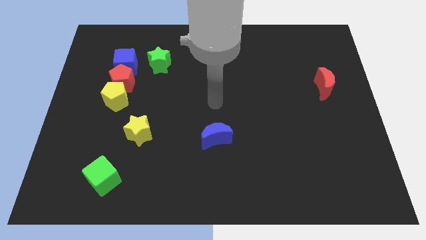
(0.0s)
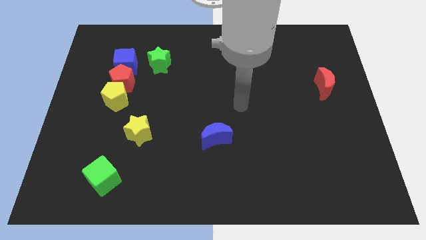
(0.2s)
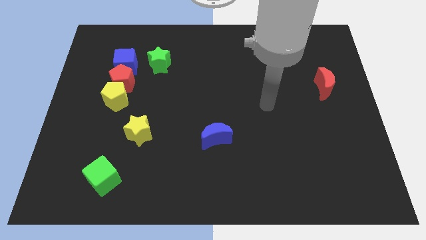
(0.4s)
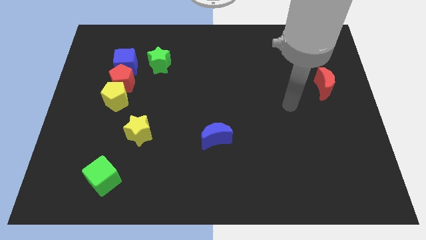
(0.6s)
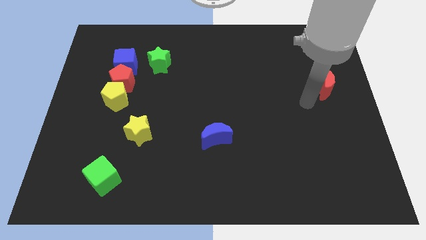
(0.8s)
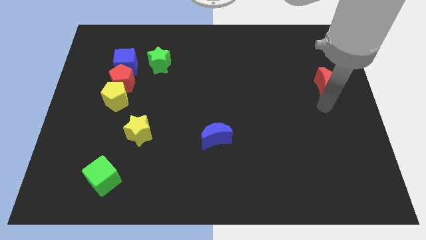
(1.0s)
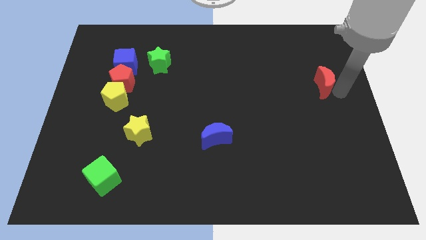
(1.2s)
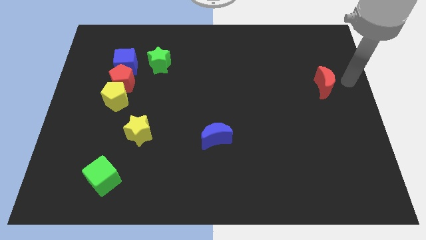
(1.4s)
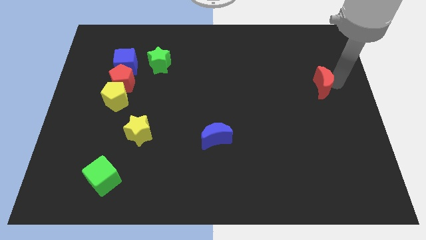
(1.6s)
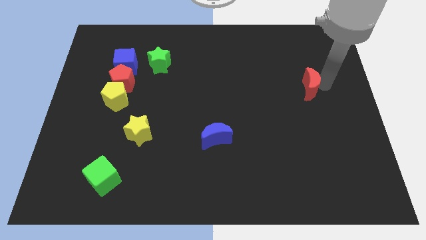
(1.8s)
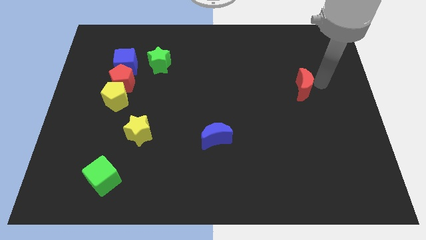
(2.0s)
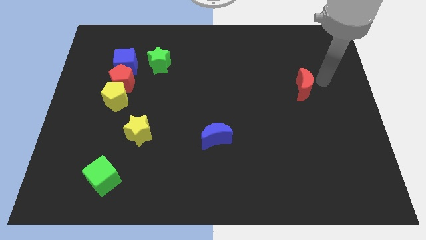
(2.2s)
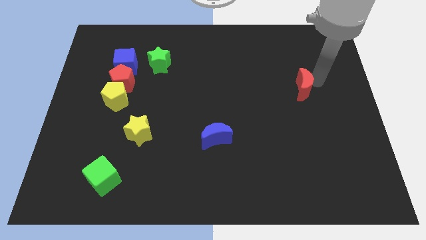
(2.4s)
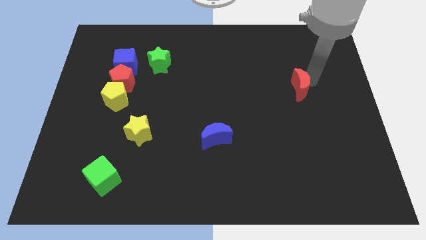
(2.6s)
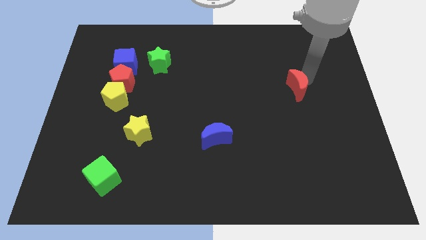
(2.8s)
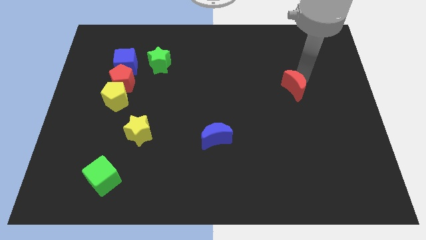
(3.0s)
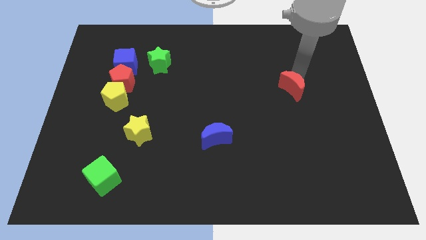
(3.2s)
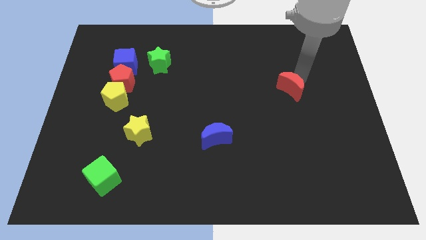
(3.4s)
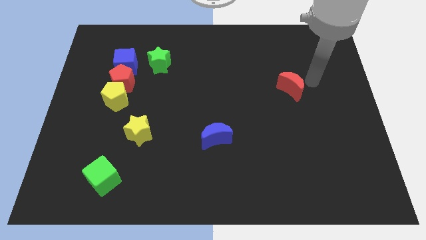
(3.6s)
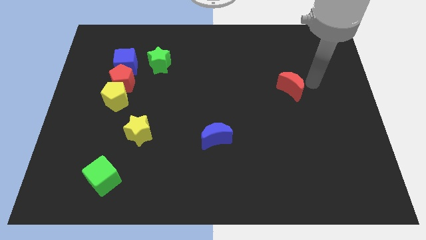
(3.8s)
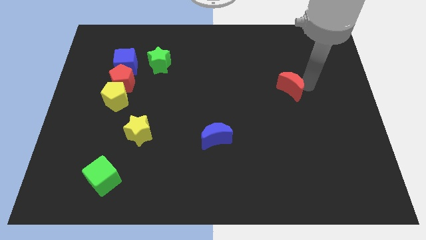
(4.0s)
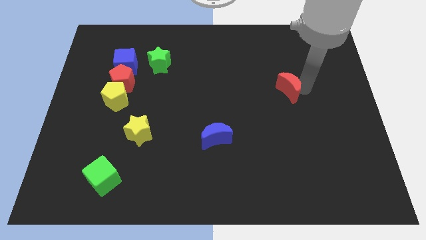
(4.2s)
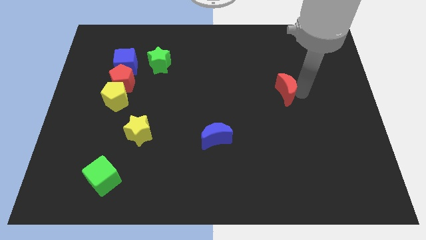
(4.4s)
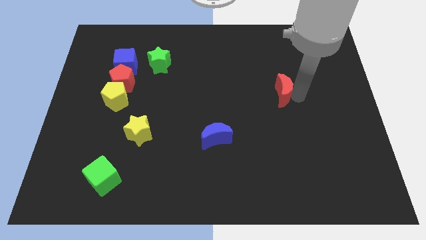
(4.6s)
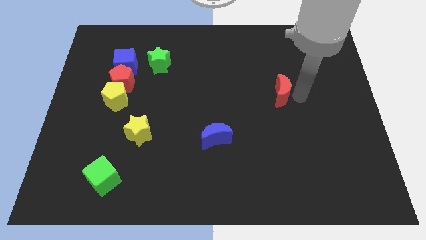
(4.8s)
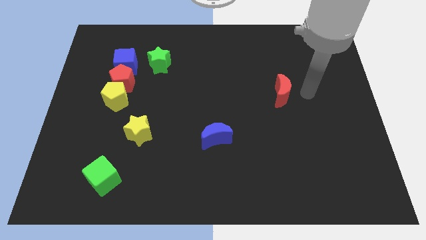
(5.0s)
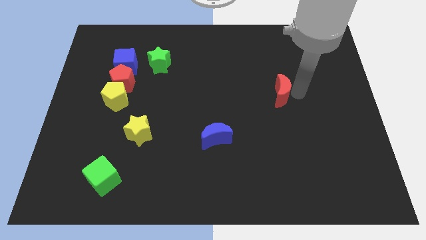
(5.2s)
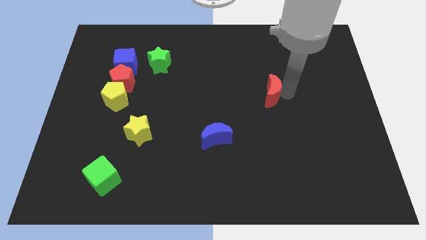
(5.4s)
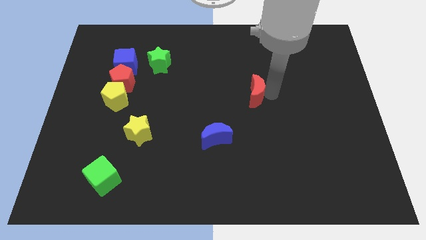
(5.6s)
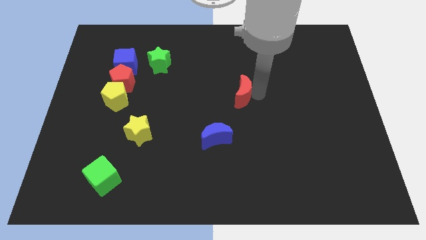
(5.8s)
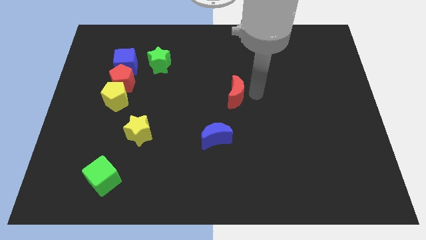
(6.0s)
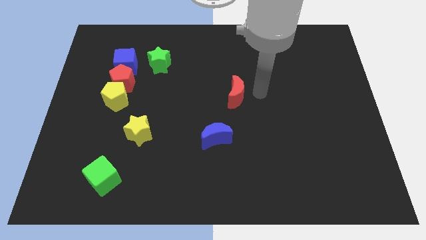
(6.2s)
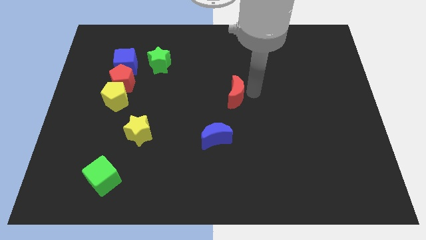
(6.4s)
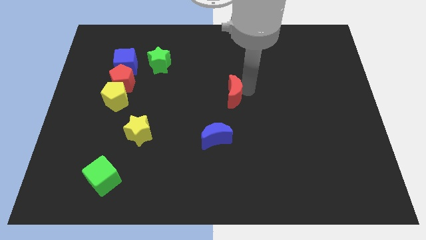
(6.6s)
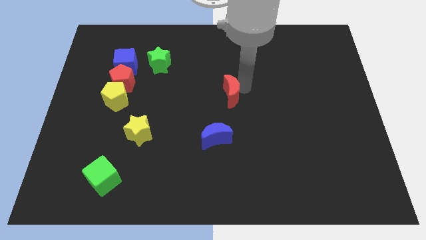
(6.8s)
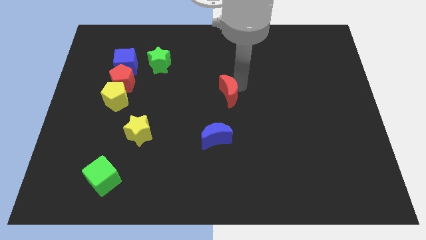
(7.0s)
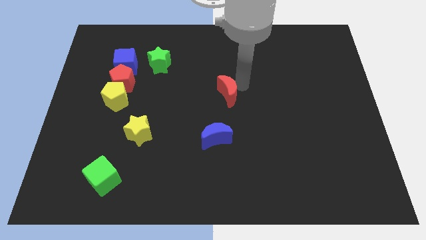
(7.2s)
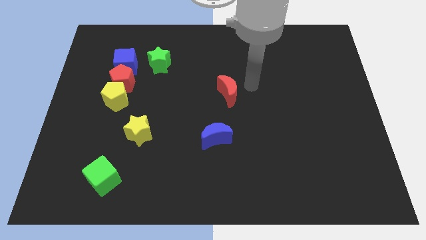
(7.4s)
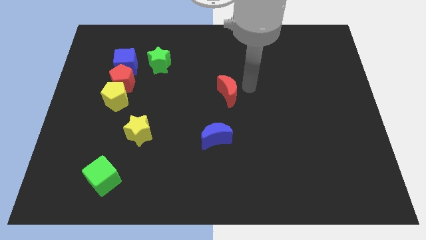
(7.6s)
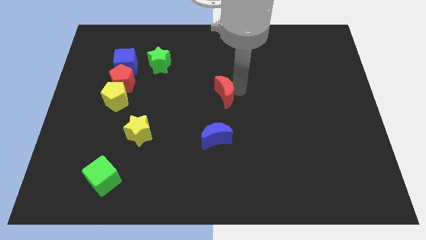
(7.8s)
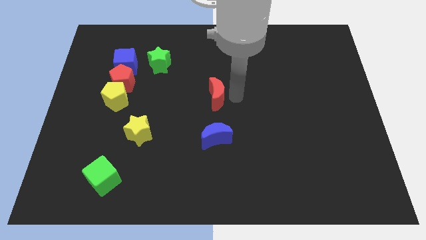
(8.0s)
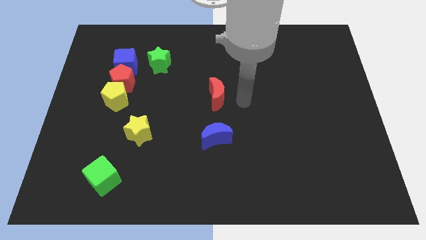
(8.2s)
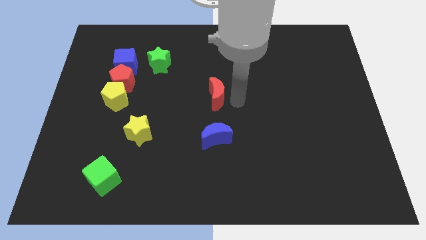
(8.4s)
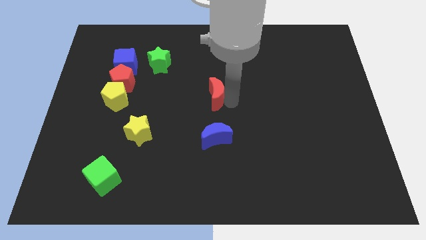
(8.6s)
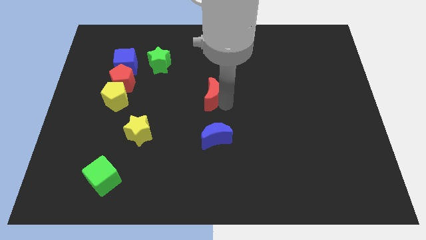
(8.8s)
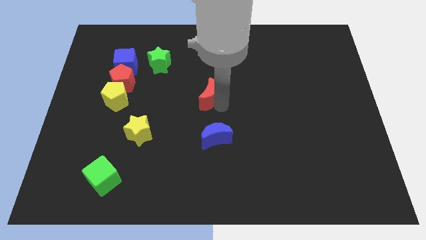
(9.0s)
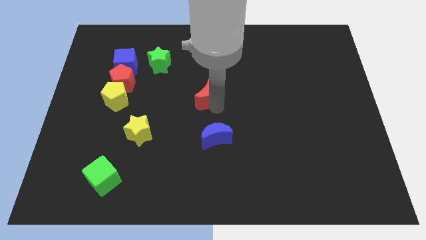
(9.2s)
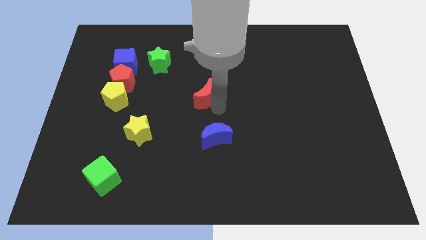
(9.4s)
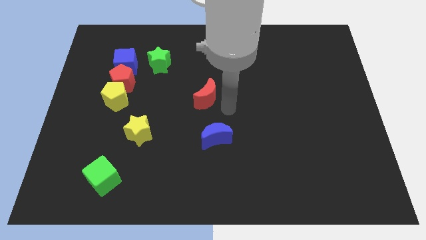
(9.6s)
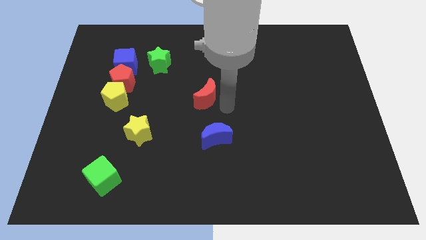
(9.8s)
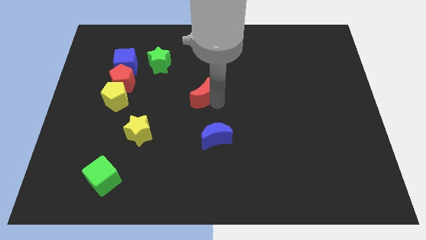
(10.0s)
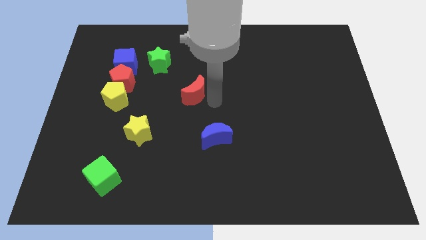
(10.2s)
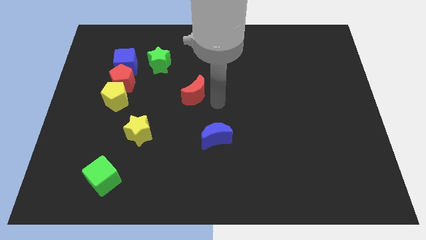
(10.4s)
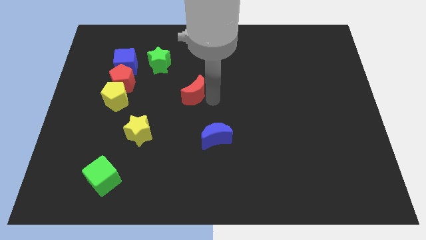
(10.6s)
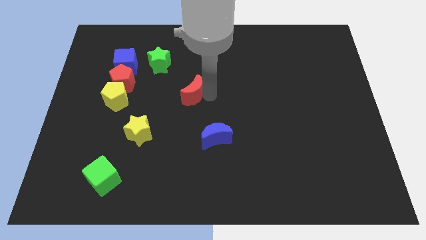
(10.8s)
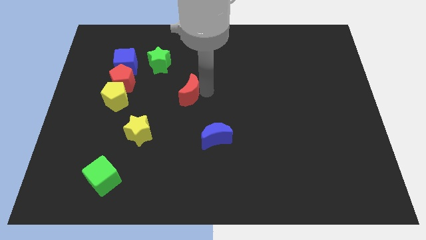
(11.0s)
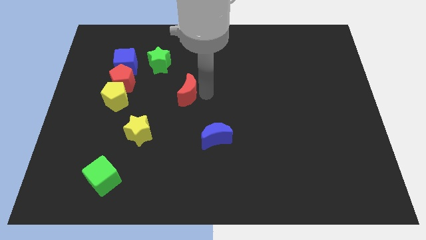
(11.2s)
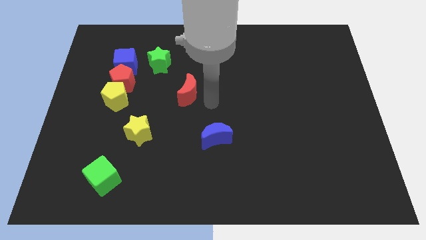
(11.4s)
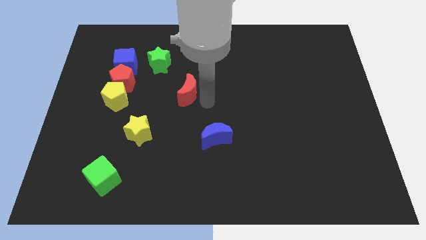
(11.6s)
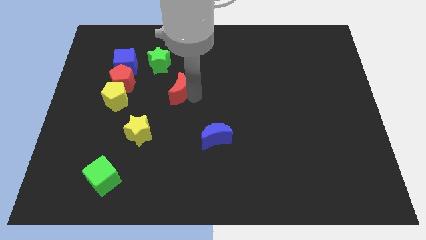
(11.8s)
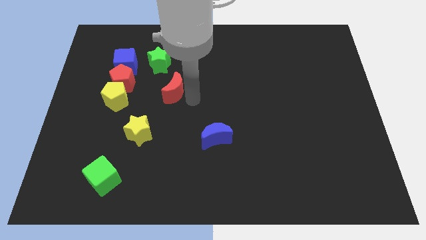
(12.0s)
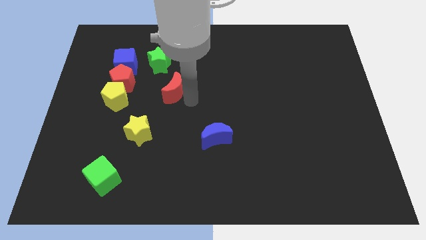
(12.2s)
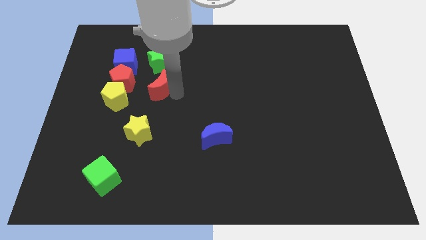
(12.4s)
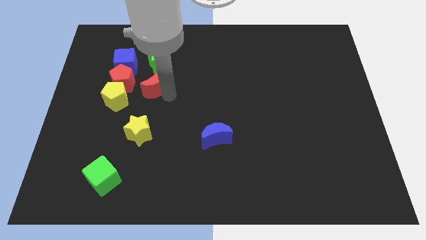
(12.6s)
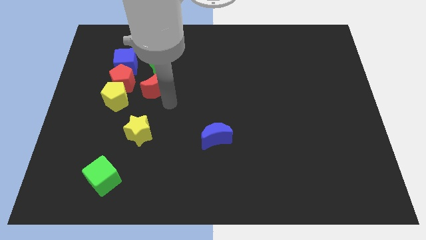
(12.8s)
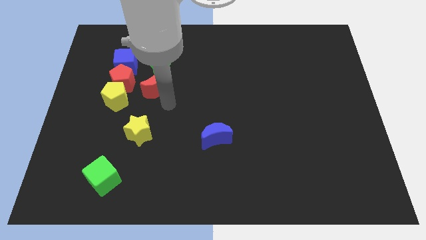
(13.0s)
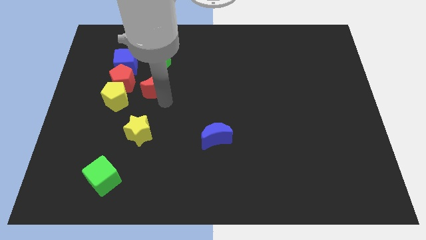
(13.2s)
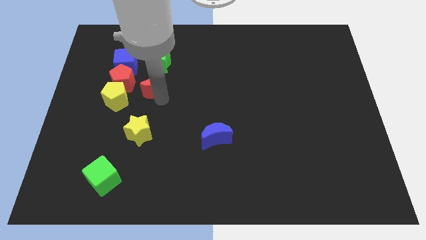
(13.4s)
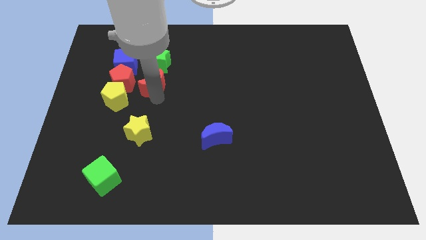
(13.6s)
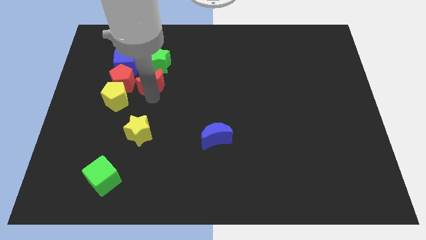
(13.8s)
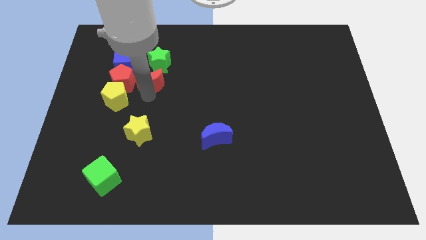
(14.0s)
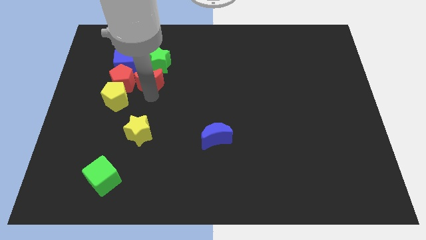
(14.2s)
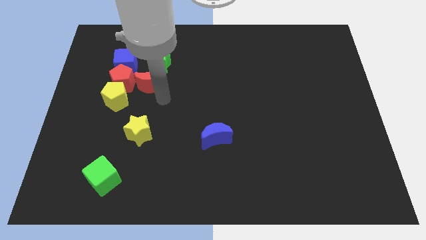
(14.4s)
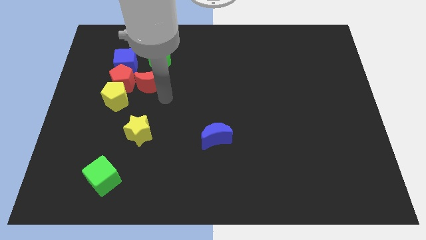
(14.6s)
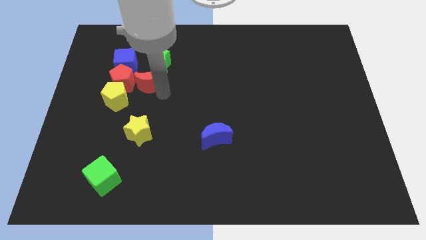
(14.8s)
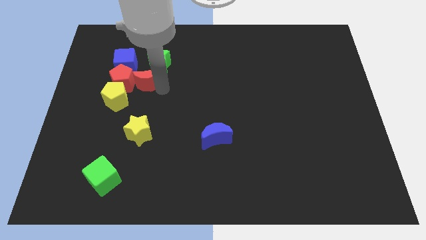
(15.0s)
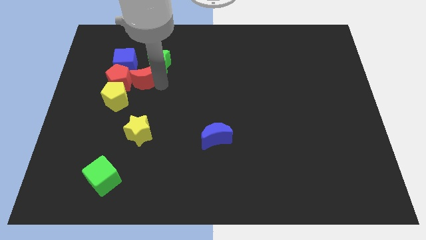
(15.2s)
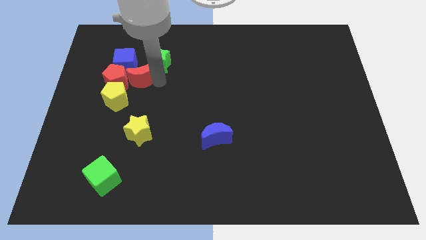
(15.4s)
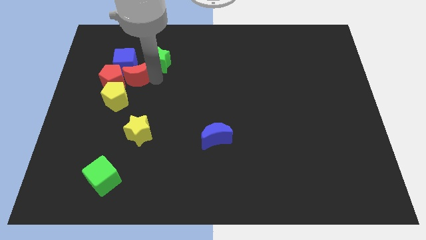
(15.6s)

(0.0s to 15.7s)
put the red moon close to the blue cube

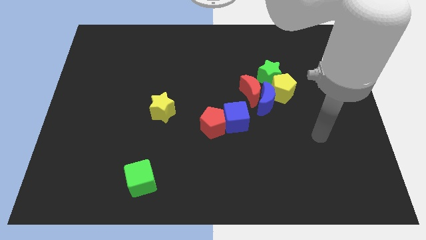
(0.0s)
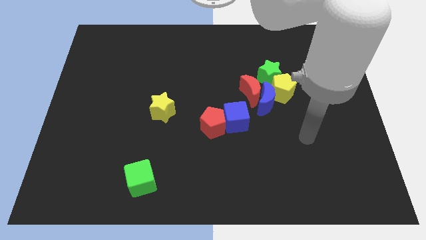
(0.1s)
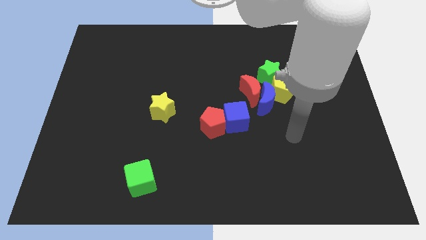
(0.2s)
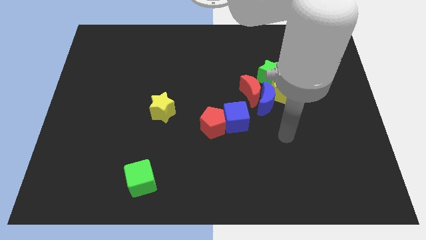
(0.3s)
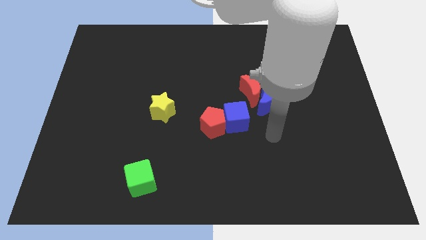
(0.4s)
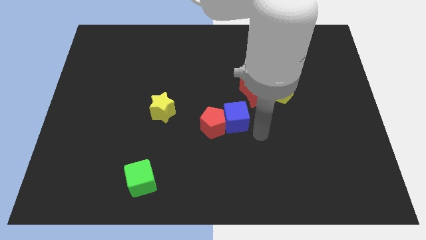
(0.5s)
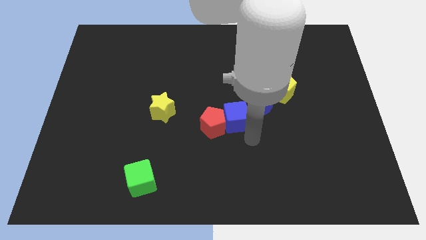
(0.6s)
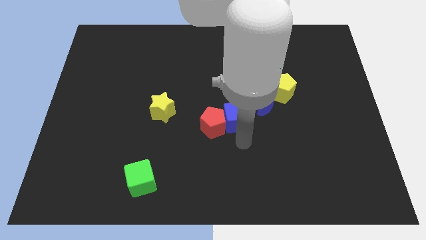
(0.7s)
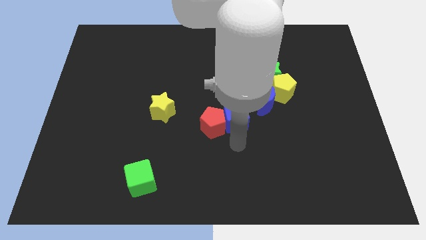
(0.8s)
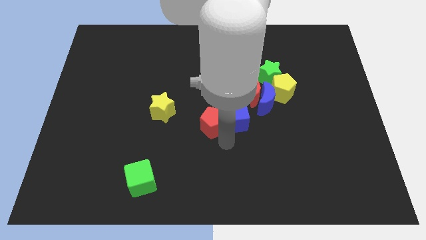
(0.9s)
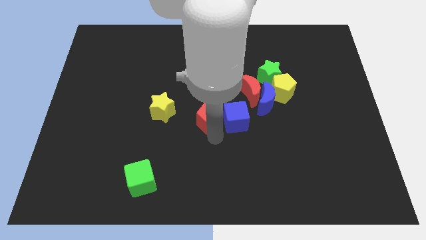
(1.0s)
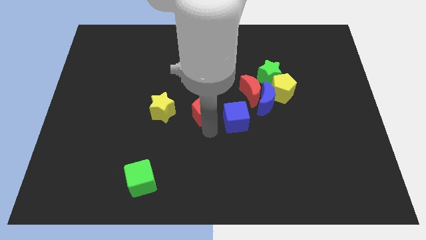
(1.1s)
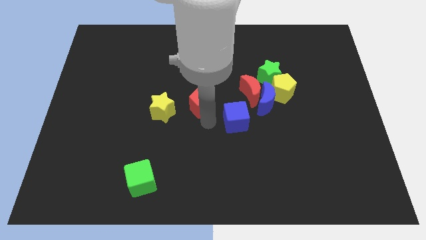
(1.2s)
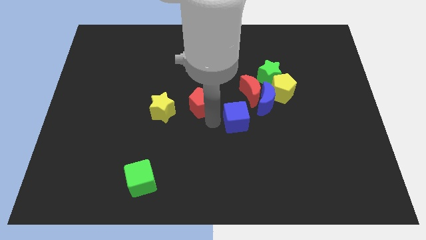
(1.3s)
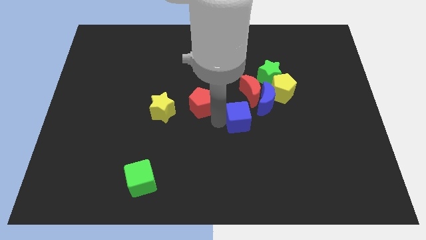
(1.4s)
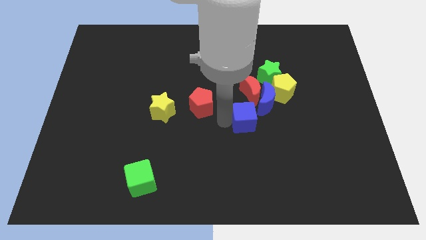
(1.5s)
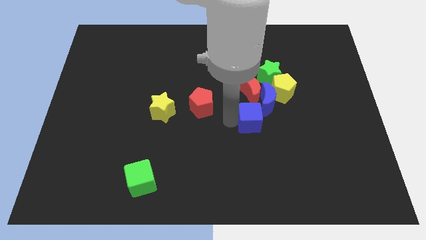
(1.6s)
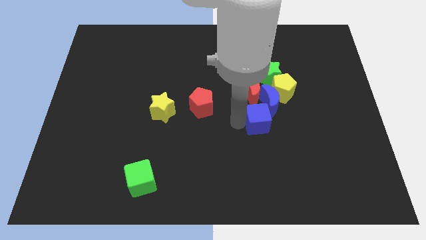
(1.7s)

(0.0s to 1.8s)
slide the blue cube towards the blue moon
